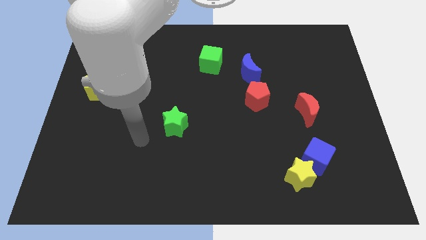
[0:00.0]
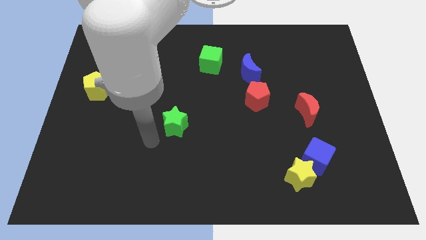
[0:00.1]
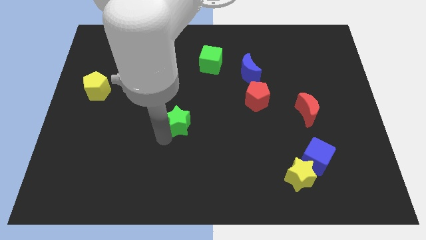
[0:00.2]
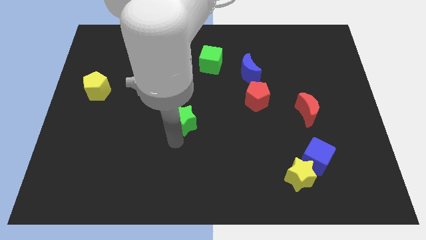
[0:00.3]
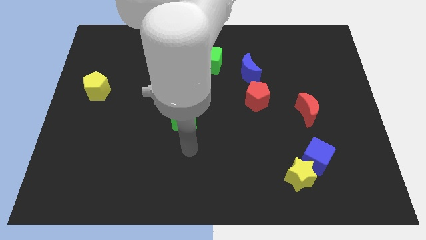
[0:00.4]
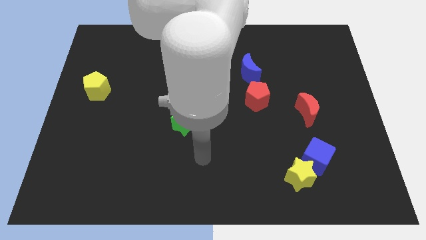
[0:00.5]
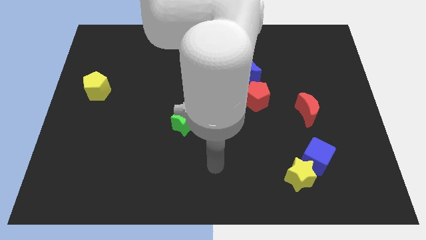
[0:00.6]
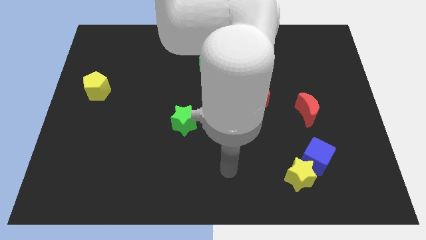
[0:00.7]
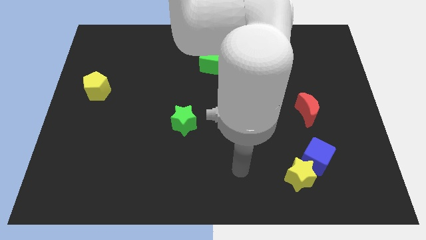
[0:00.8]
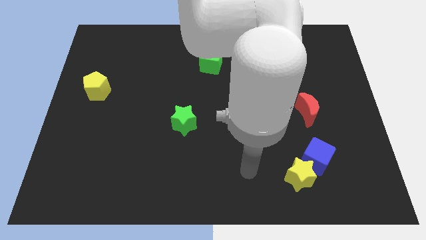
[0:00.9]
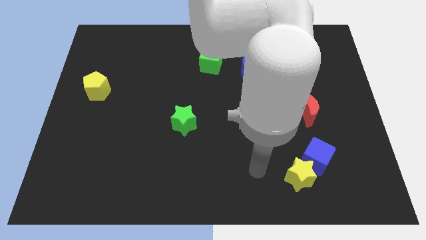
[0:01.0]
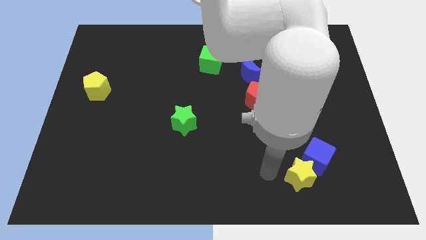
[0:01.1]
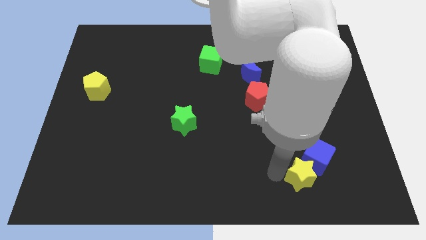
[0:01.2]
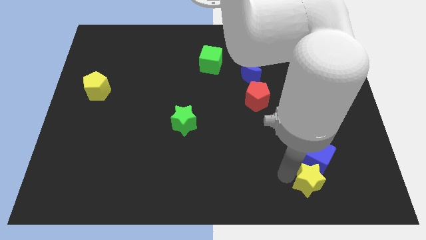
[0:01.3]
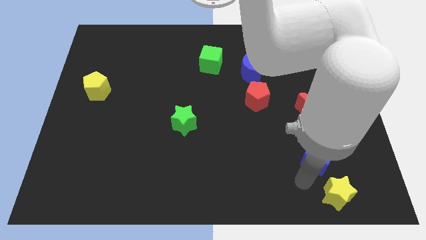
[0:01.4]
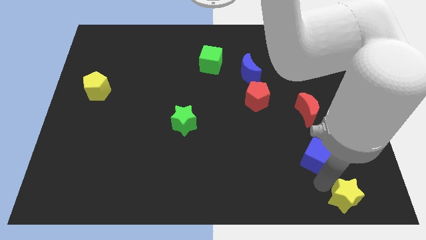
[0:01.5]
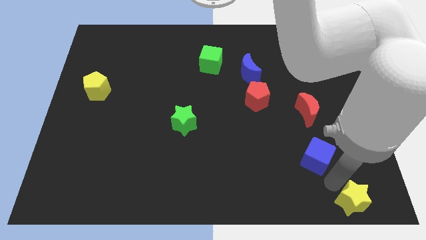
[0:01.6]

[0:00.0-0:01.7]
separate the blue cube from the yellow star

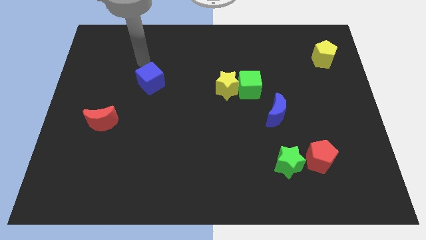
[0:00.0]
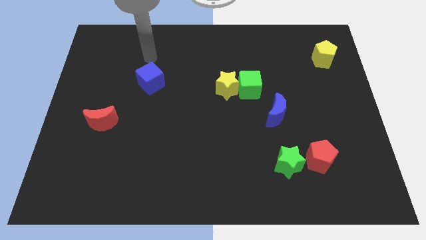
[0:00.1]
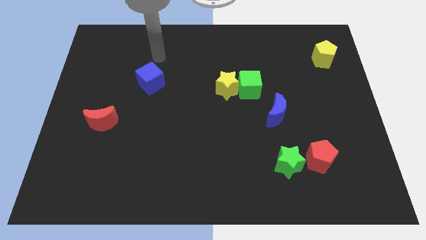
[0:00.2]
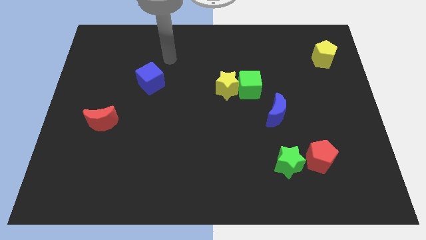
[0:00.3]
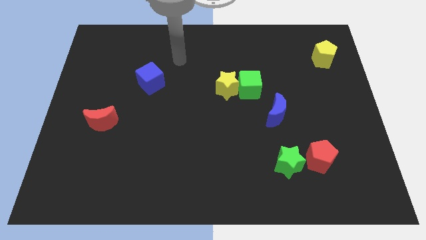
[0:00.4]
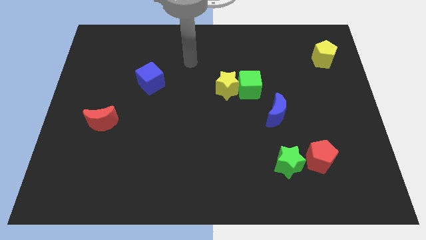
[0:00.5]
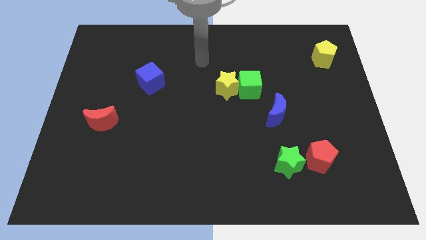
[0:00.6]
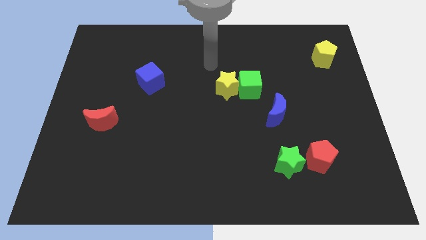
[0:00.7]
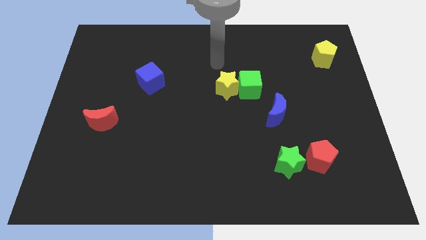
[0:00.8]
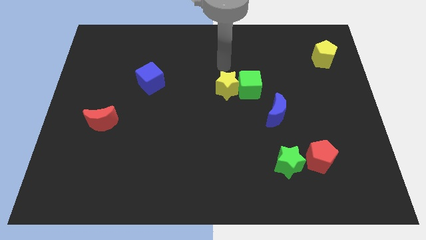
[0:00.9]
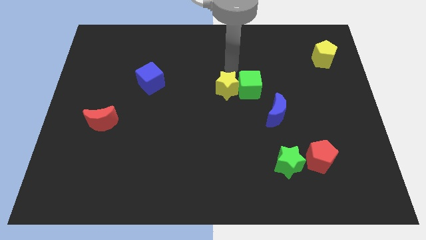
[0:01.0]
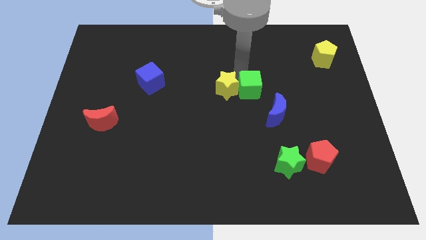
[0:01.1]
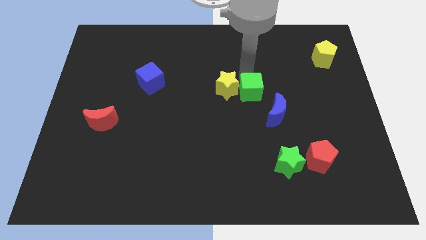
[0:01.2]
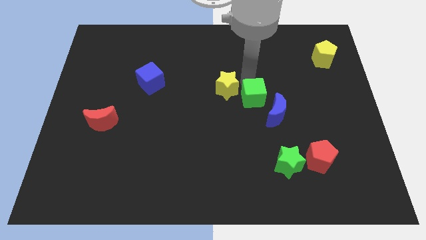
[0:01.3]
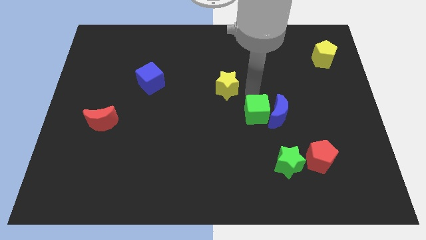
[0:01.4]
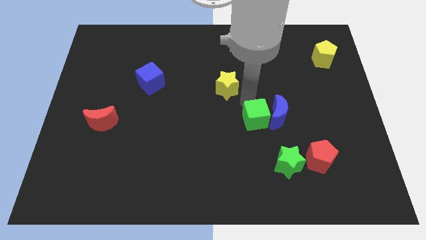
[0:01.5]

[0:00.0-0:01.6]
separate the yellow star from the green cube

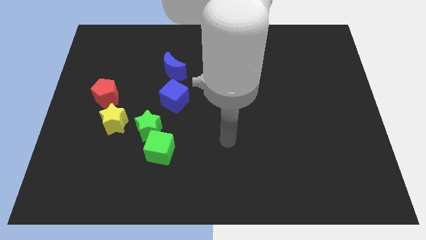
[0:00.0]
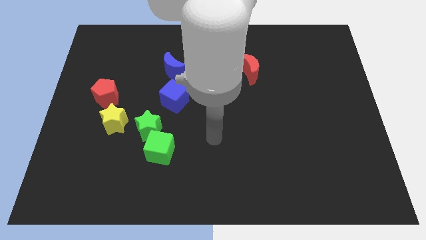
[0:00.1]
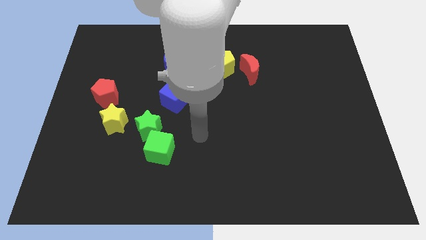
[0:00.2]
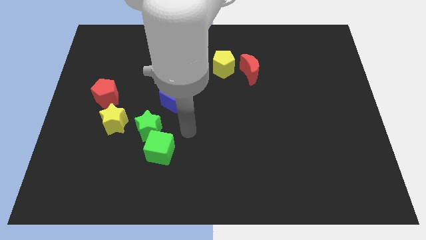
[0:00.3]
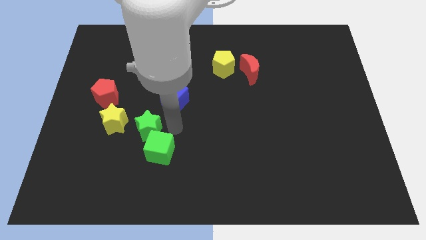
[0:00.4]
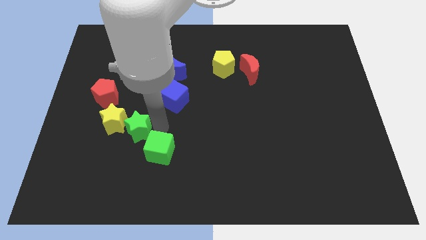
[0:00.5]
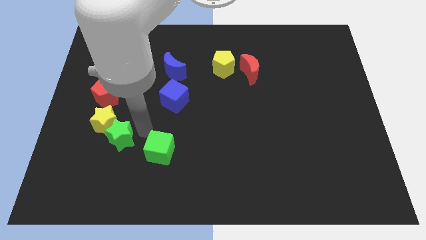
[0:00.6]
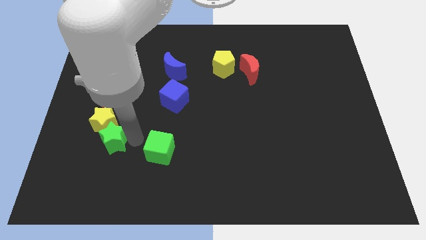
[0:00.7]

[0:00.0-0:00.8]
separate the green cube from the green star

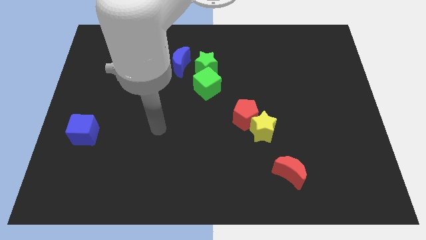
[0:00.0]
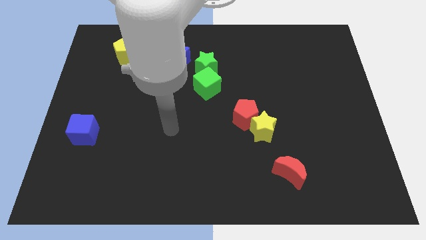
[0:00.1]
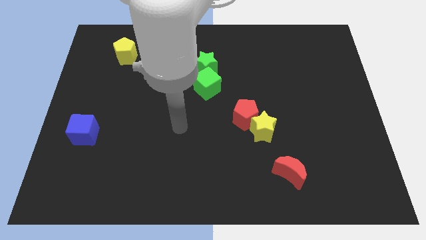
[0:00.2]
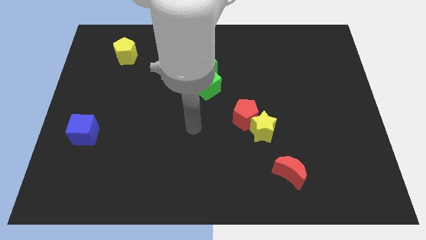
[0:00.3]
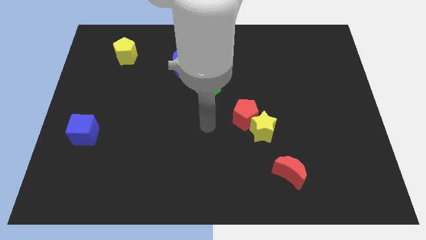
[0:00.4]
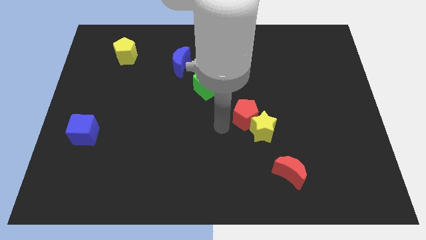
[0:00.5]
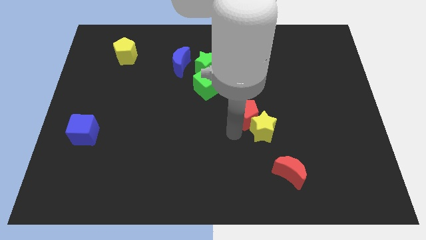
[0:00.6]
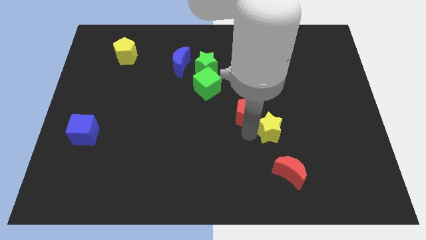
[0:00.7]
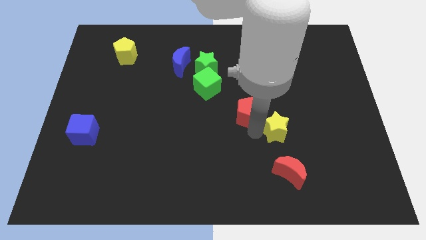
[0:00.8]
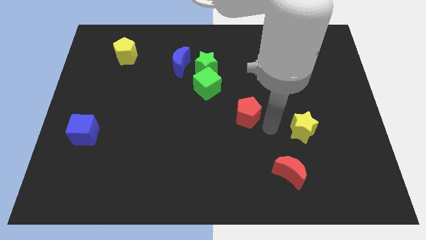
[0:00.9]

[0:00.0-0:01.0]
move the red pentagon away from the yellow star

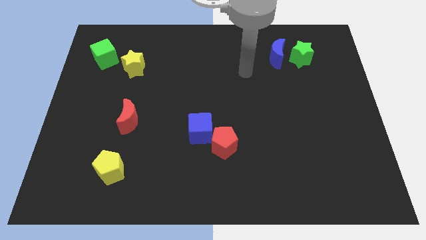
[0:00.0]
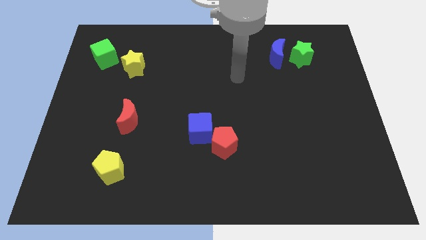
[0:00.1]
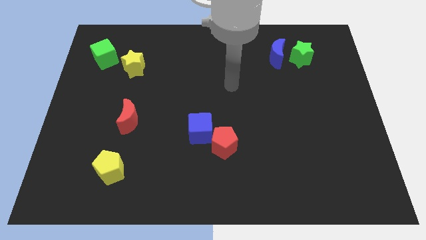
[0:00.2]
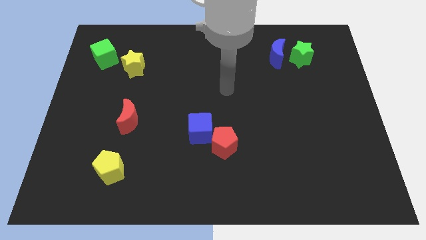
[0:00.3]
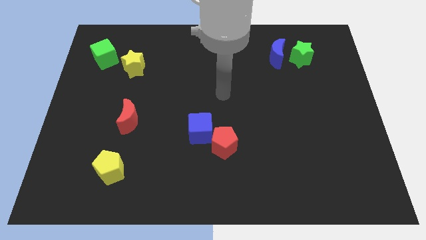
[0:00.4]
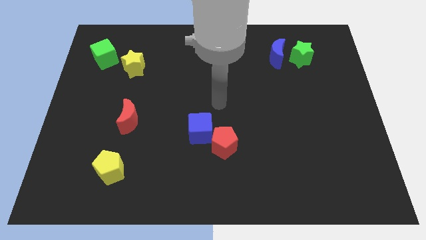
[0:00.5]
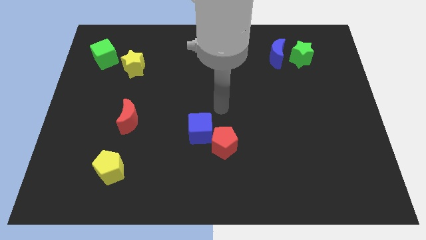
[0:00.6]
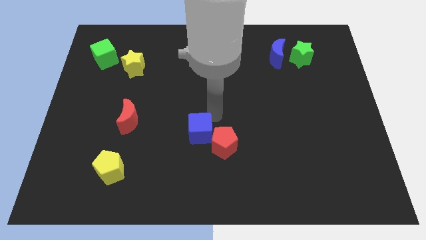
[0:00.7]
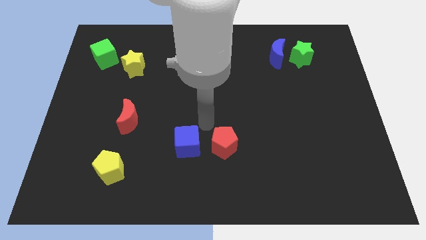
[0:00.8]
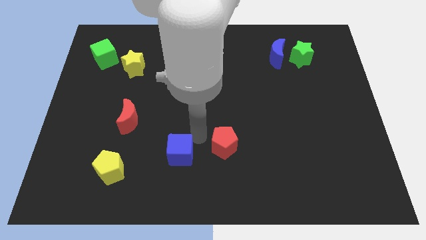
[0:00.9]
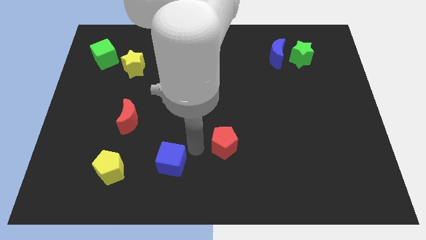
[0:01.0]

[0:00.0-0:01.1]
separate the red pentagon from the blue cube

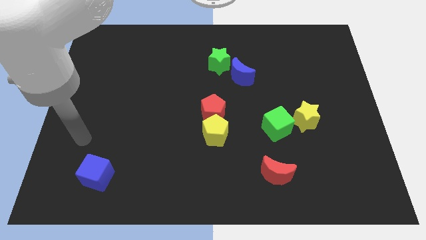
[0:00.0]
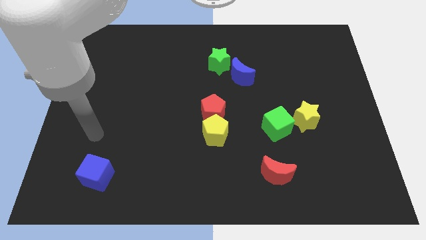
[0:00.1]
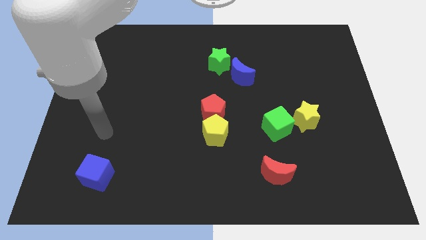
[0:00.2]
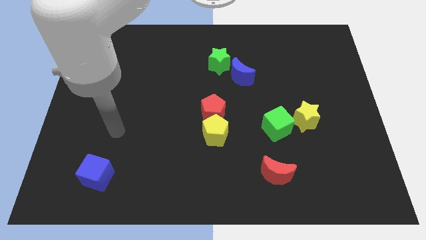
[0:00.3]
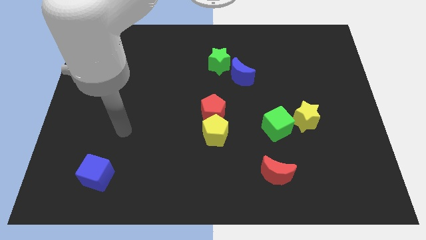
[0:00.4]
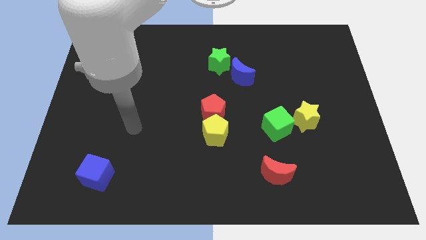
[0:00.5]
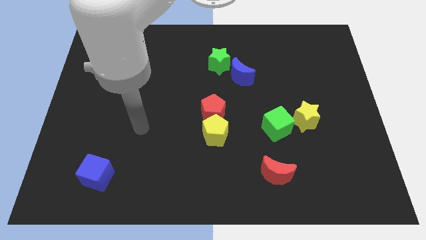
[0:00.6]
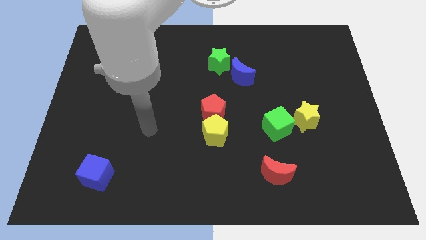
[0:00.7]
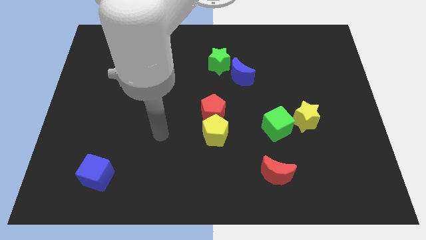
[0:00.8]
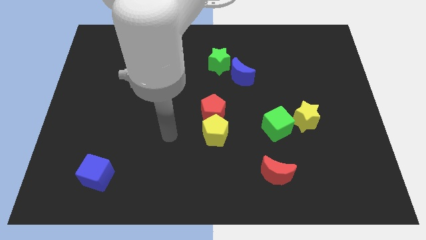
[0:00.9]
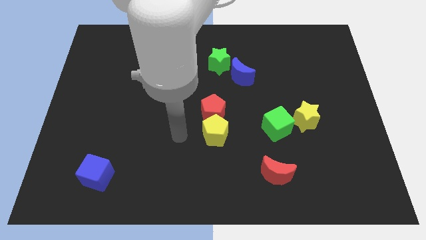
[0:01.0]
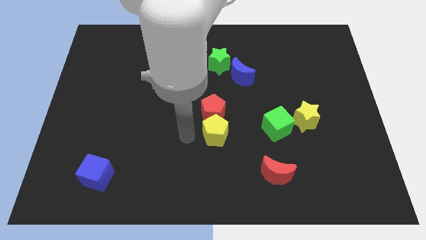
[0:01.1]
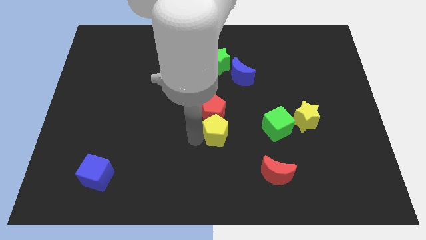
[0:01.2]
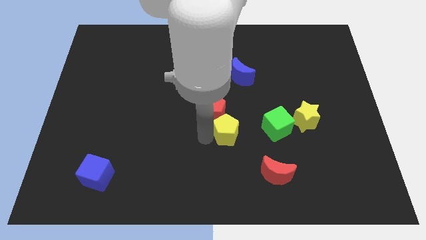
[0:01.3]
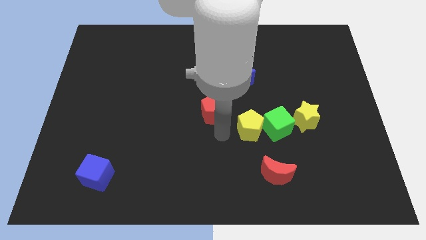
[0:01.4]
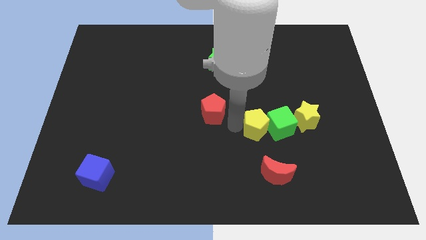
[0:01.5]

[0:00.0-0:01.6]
separate the red pentagon from the yellow pentagon

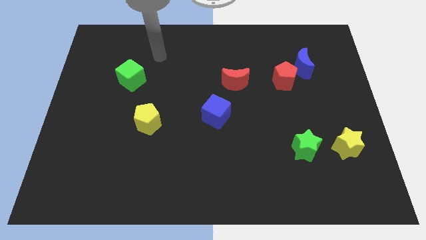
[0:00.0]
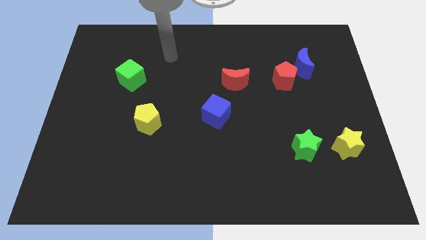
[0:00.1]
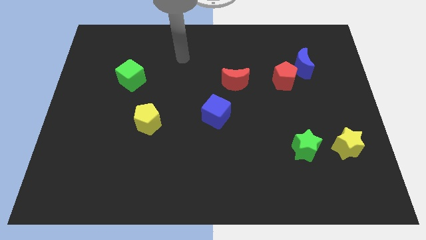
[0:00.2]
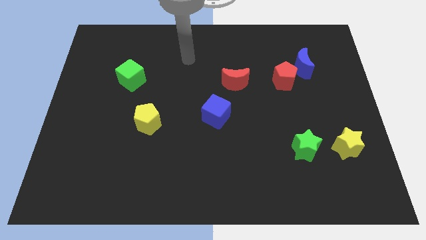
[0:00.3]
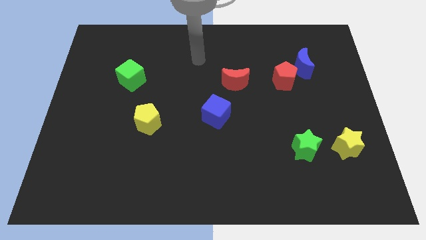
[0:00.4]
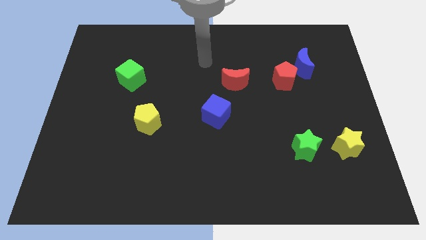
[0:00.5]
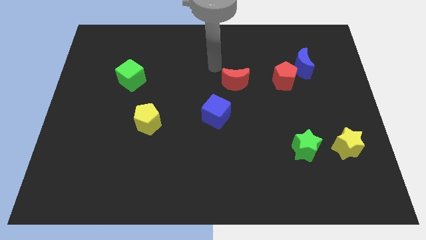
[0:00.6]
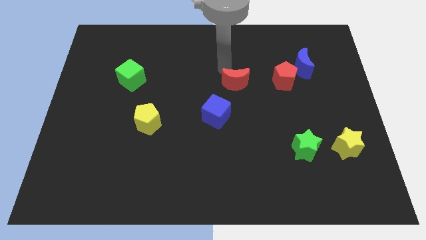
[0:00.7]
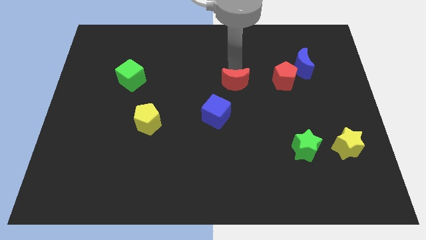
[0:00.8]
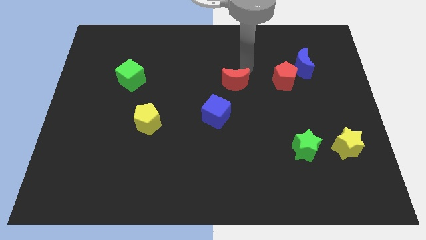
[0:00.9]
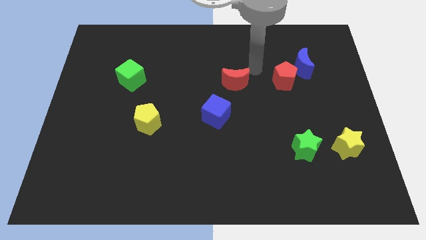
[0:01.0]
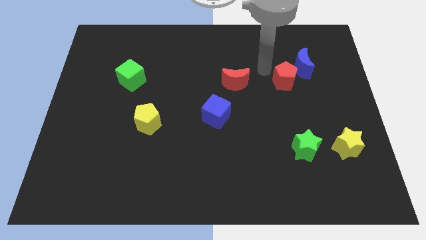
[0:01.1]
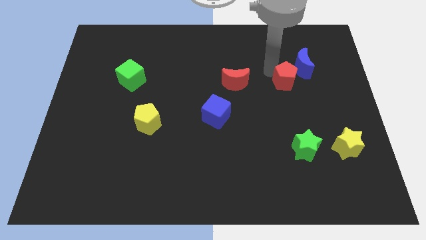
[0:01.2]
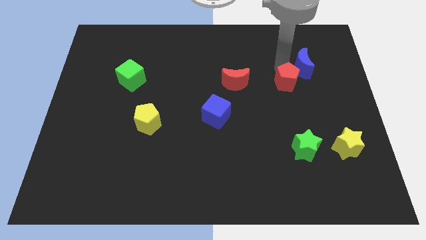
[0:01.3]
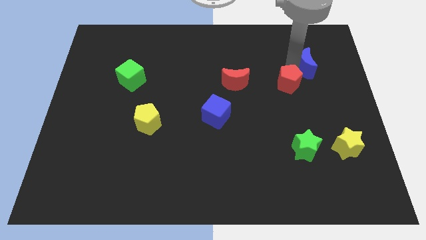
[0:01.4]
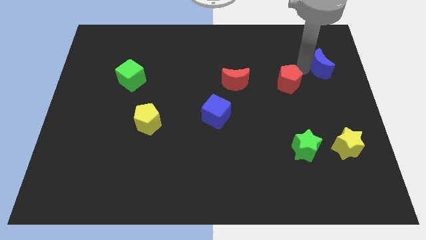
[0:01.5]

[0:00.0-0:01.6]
move the red pentagon away from the blue moon
